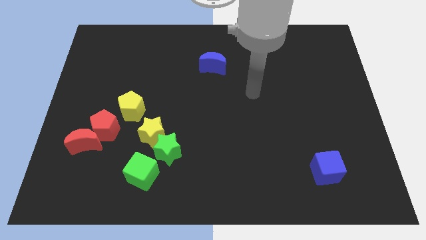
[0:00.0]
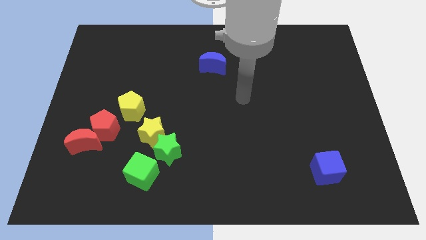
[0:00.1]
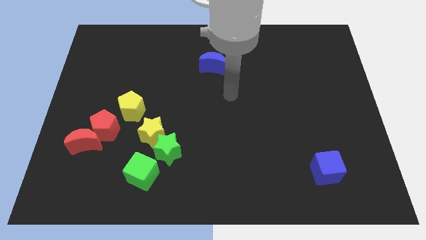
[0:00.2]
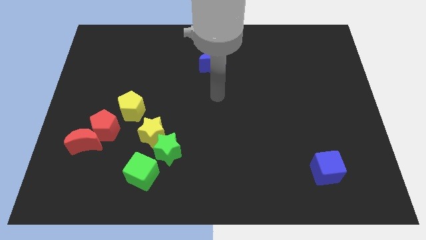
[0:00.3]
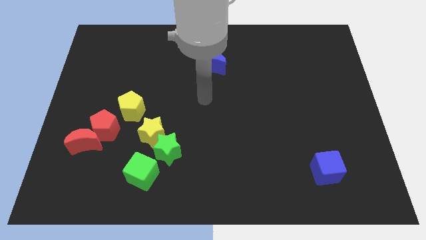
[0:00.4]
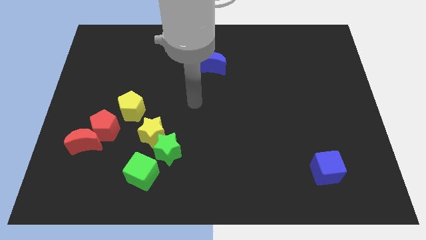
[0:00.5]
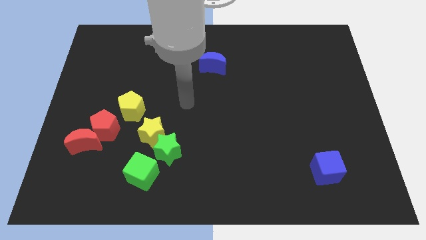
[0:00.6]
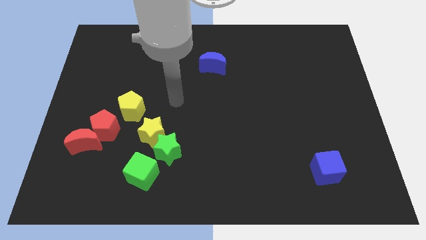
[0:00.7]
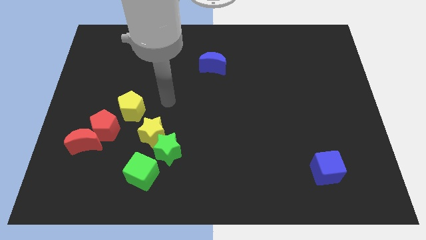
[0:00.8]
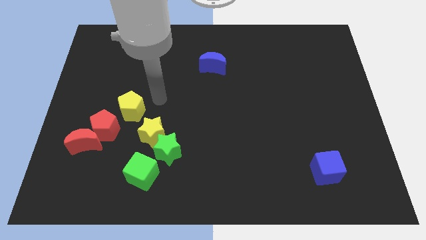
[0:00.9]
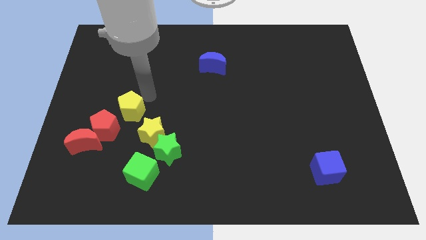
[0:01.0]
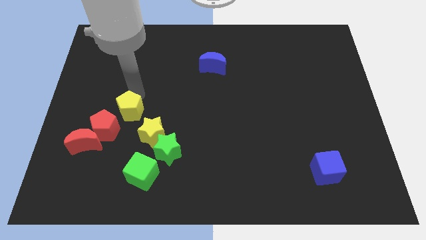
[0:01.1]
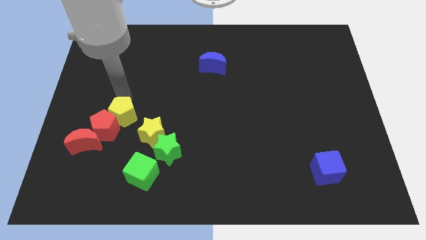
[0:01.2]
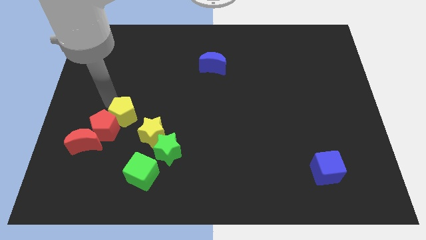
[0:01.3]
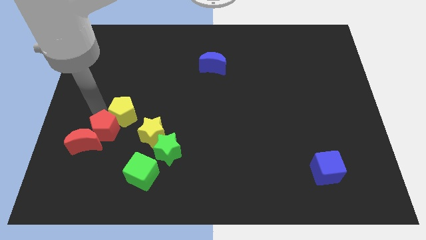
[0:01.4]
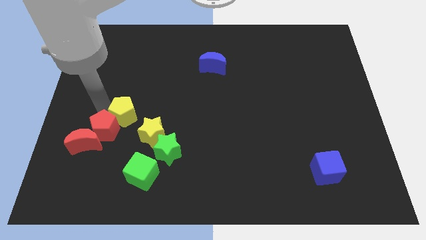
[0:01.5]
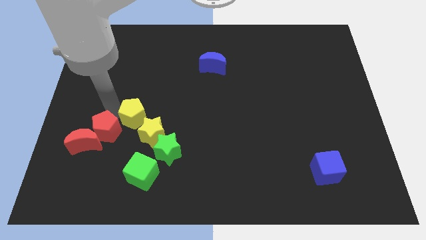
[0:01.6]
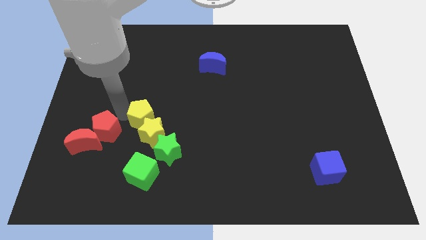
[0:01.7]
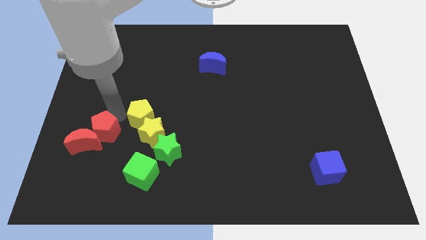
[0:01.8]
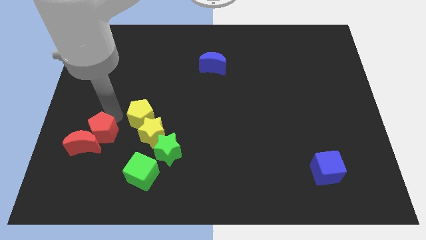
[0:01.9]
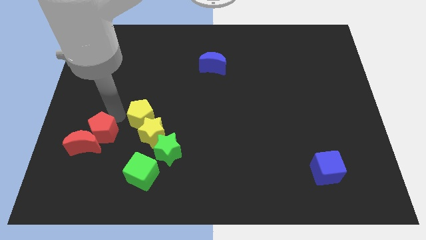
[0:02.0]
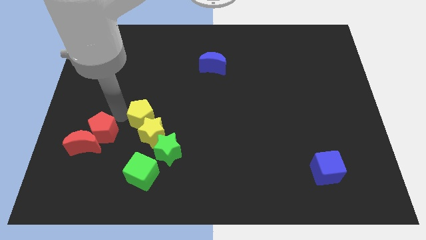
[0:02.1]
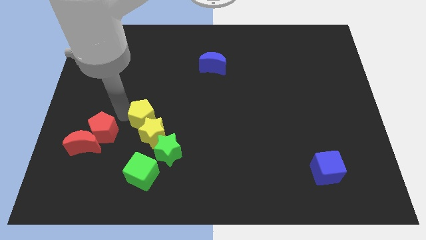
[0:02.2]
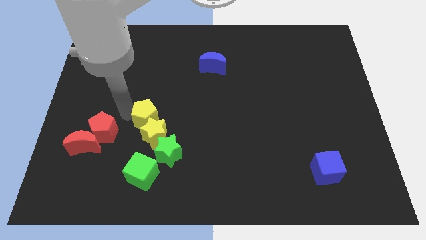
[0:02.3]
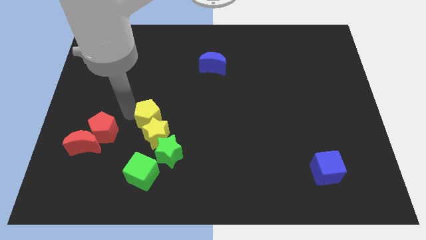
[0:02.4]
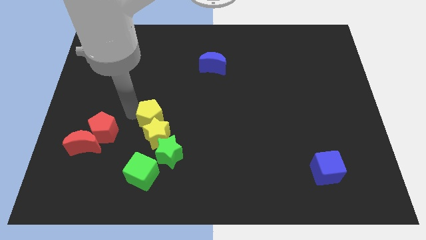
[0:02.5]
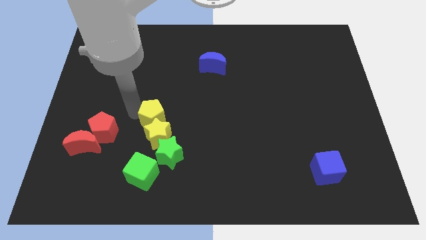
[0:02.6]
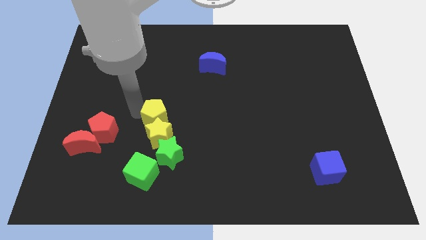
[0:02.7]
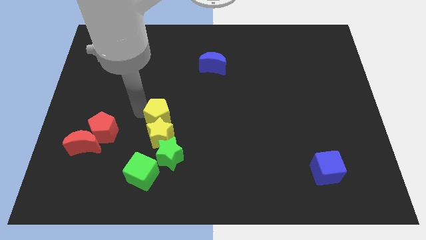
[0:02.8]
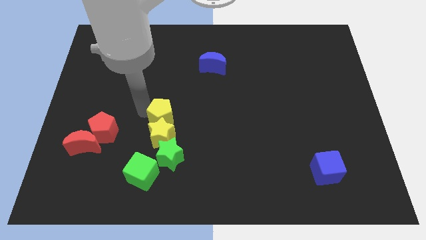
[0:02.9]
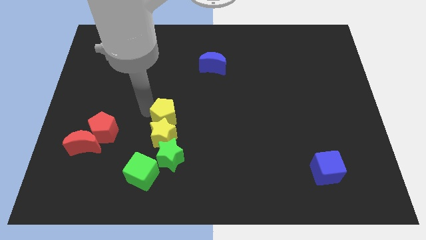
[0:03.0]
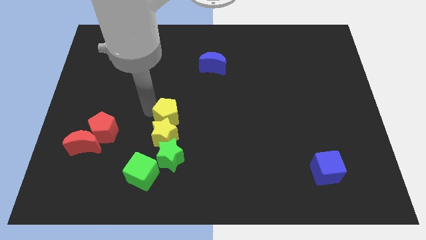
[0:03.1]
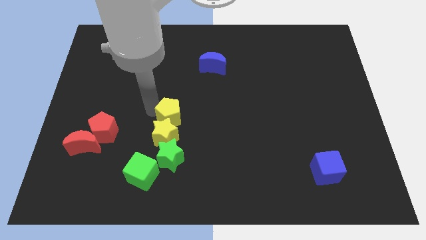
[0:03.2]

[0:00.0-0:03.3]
push the yellow pentagon diagonally downwards and right a little bit

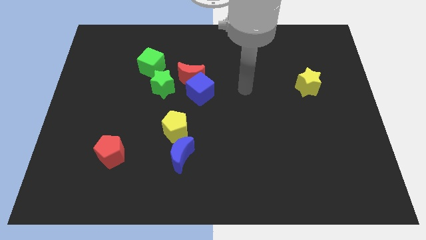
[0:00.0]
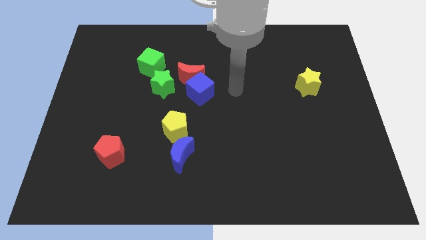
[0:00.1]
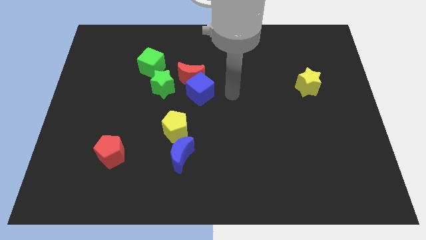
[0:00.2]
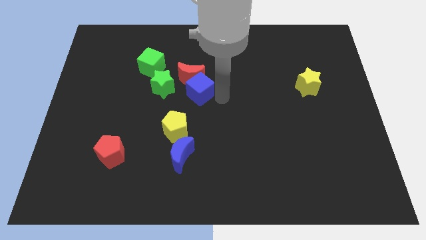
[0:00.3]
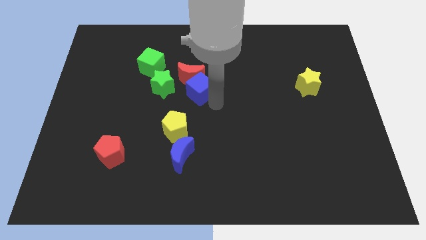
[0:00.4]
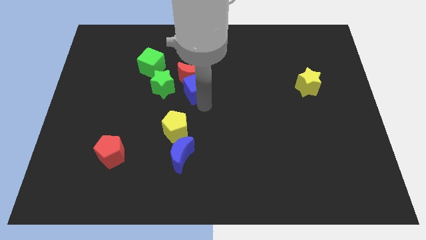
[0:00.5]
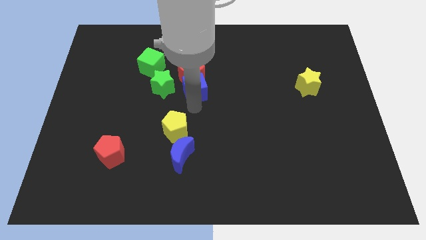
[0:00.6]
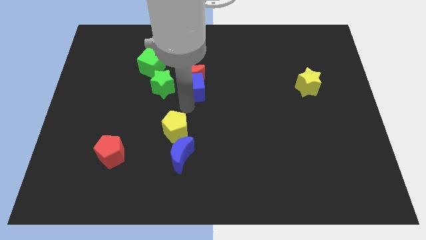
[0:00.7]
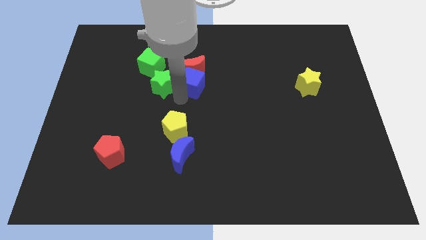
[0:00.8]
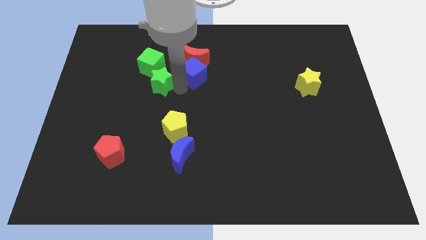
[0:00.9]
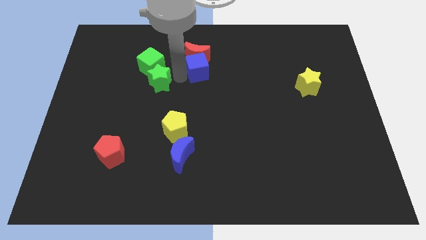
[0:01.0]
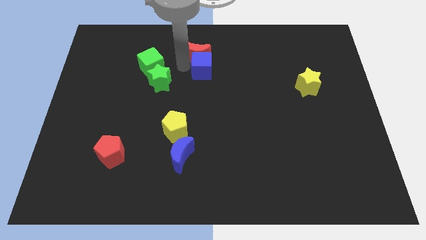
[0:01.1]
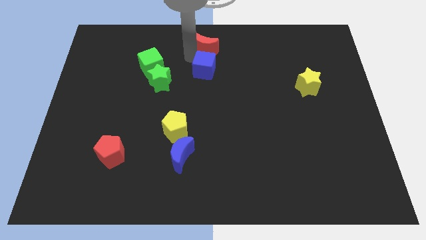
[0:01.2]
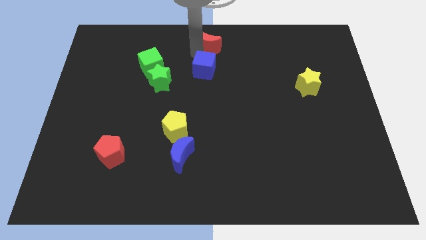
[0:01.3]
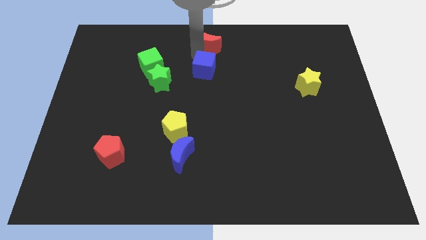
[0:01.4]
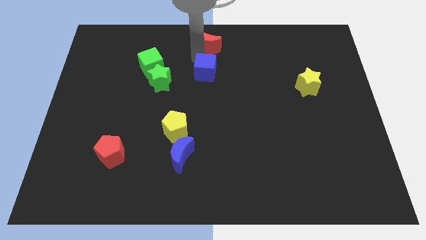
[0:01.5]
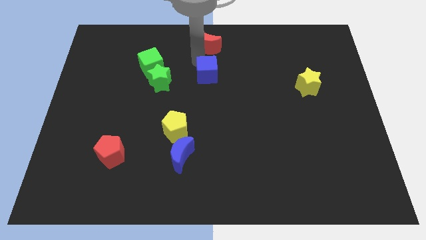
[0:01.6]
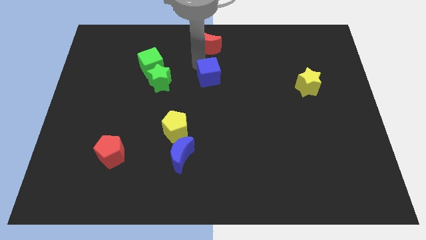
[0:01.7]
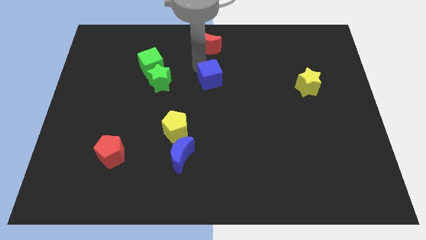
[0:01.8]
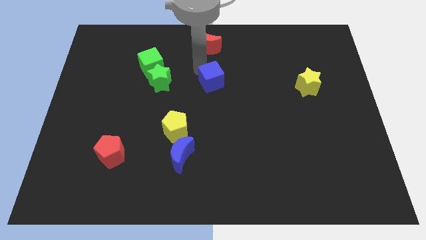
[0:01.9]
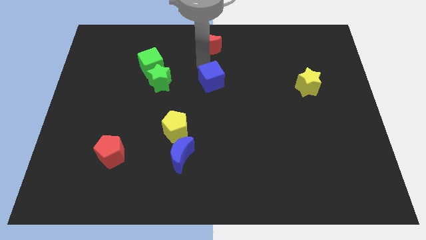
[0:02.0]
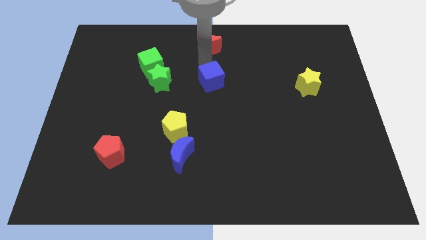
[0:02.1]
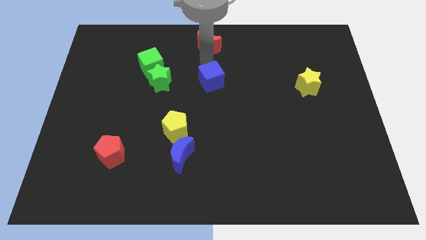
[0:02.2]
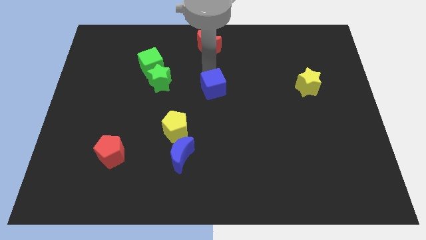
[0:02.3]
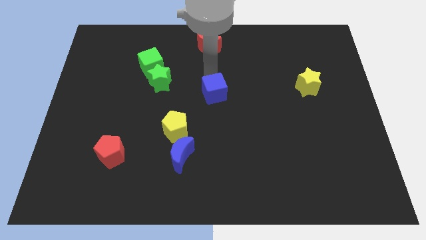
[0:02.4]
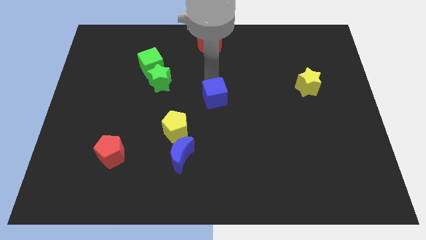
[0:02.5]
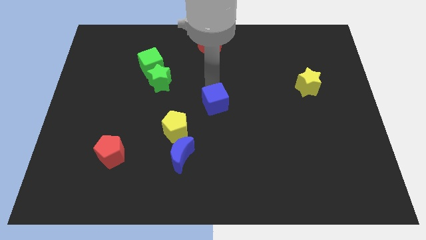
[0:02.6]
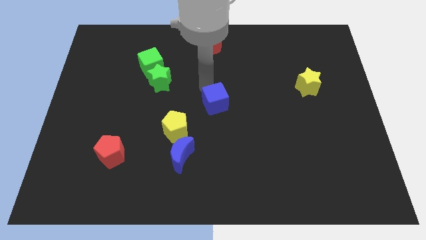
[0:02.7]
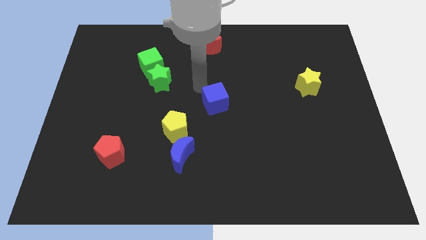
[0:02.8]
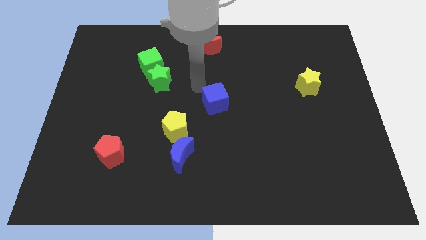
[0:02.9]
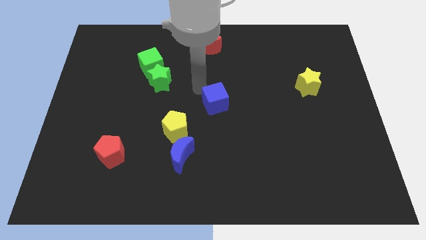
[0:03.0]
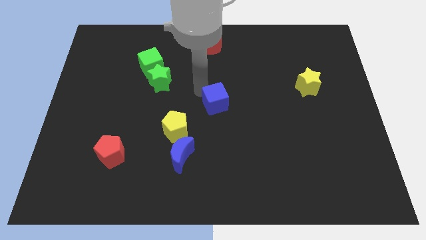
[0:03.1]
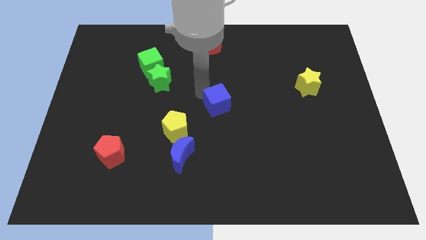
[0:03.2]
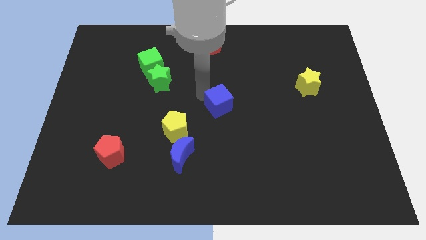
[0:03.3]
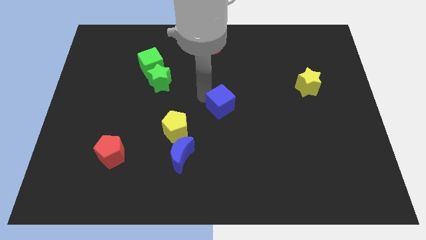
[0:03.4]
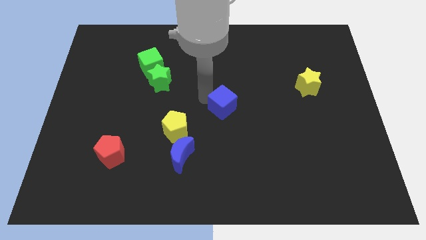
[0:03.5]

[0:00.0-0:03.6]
move the blue cube slightly downwards and right

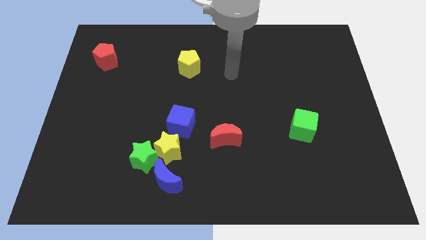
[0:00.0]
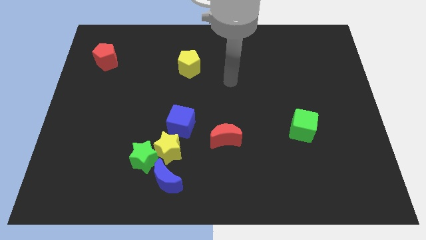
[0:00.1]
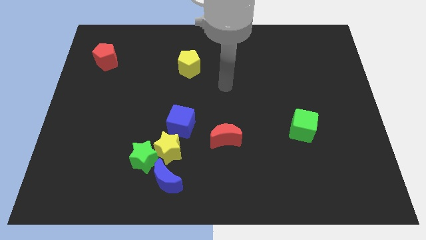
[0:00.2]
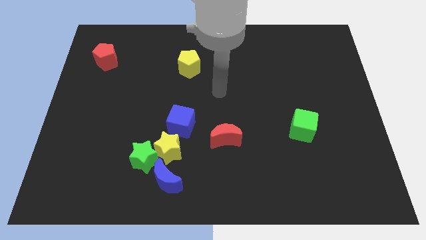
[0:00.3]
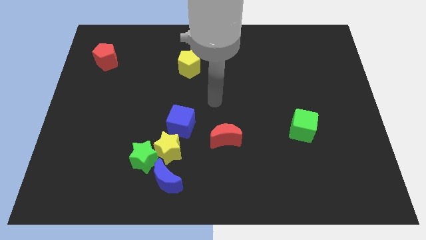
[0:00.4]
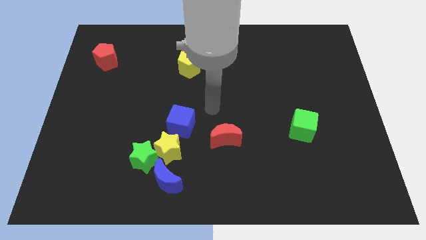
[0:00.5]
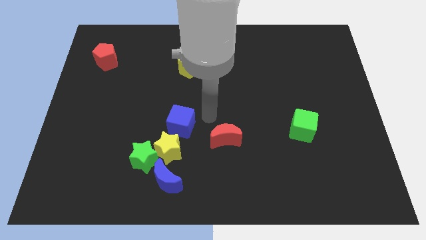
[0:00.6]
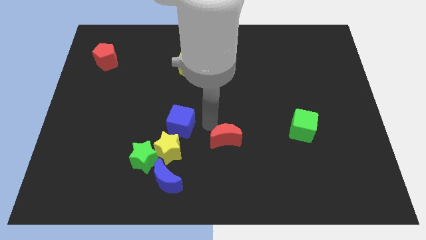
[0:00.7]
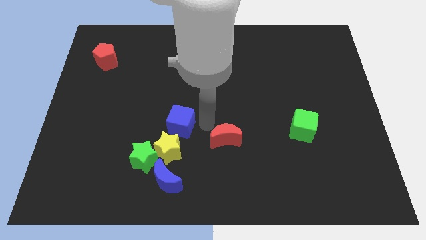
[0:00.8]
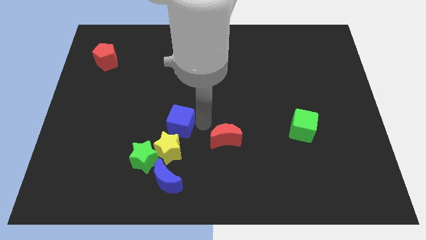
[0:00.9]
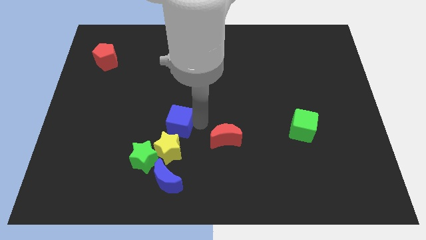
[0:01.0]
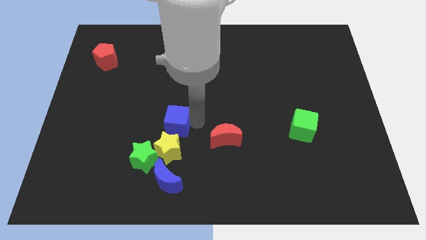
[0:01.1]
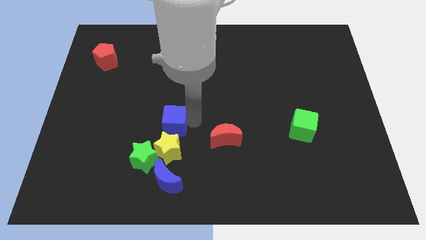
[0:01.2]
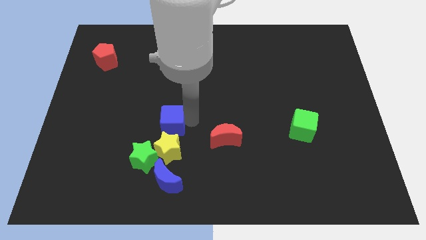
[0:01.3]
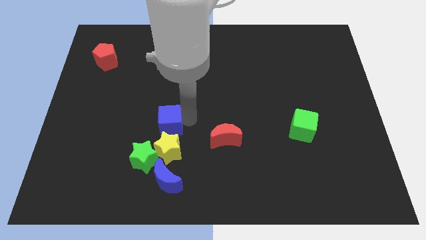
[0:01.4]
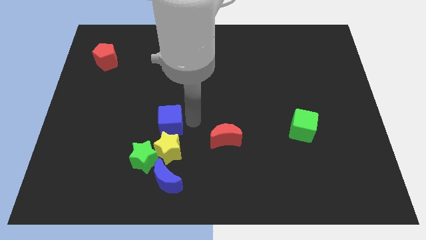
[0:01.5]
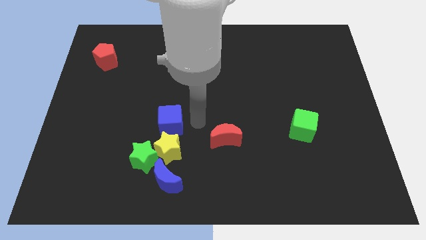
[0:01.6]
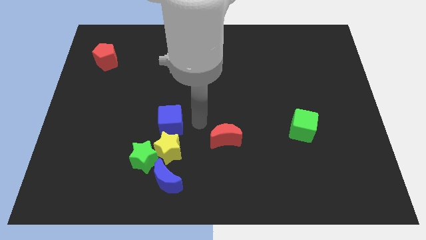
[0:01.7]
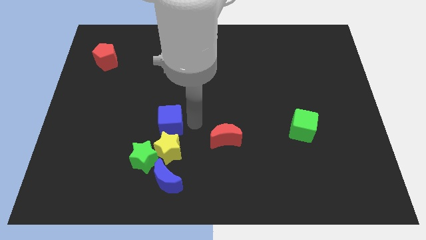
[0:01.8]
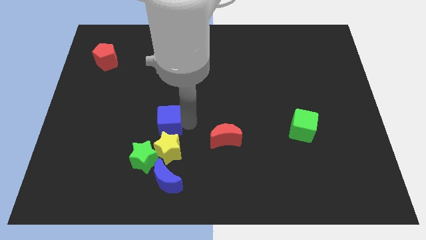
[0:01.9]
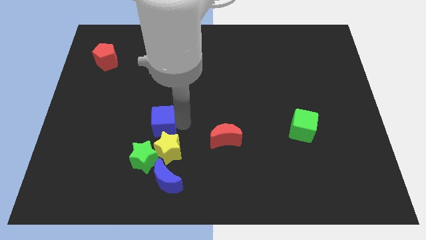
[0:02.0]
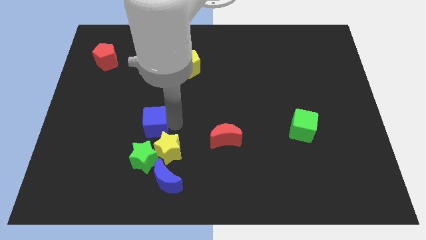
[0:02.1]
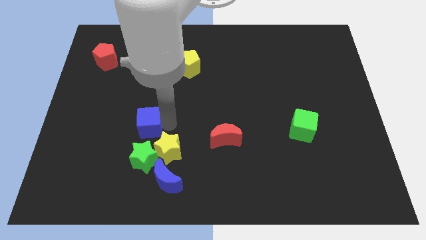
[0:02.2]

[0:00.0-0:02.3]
push the blue cube left slightly
